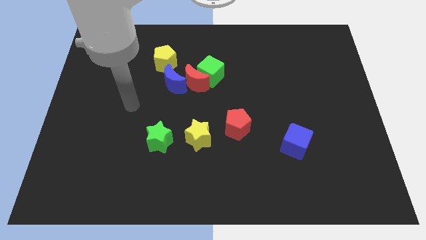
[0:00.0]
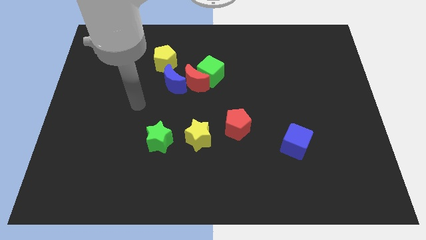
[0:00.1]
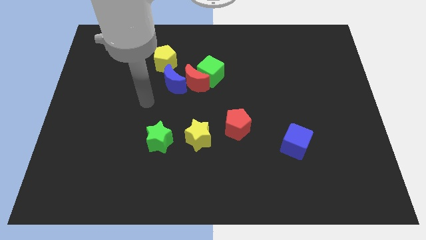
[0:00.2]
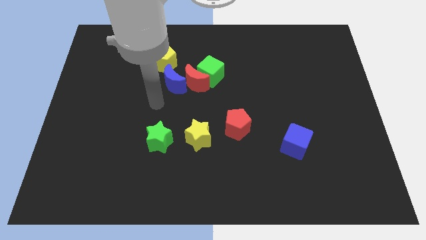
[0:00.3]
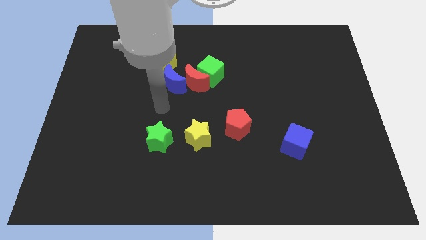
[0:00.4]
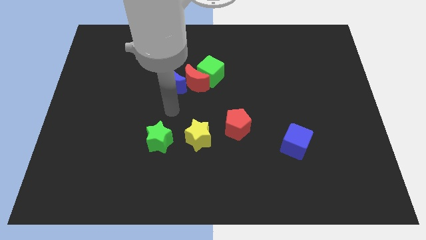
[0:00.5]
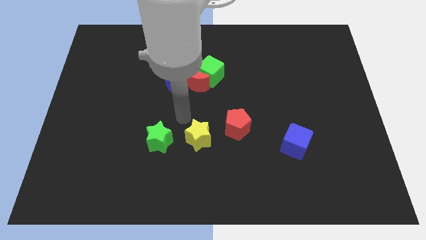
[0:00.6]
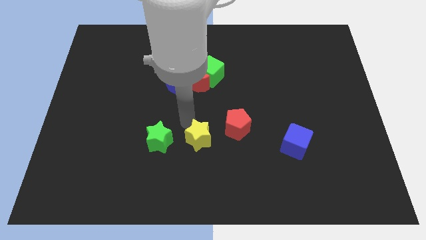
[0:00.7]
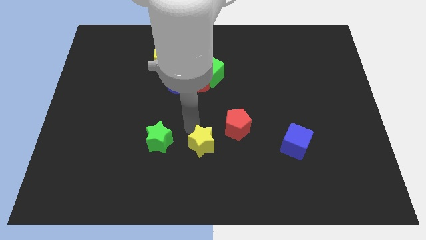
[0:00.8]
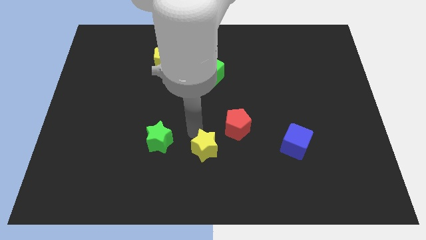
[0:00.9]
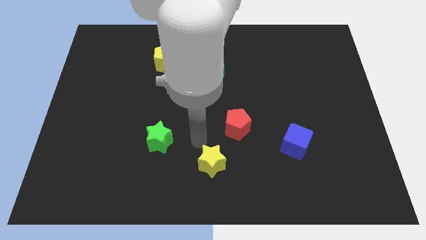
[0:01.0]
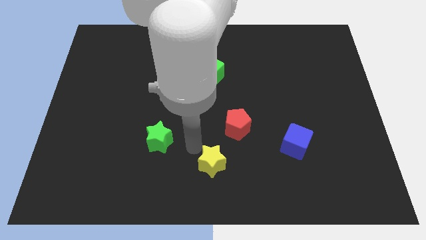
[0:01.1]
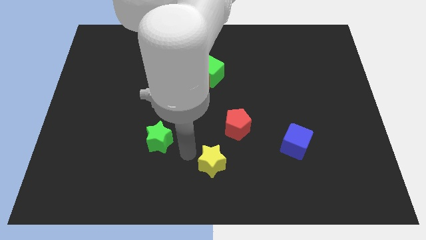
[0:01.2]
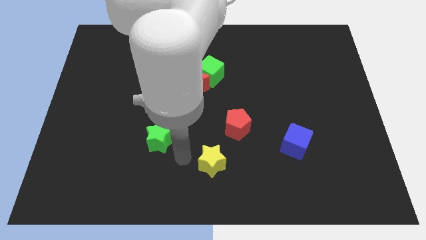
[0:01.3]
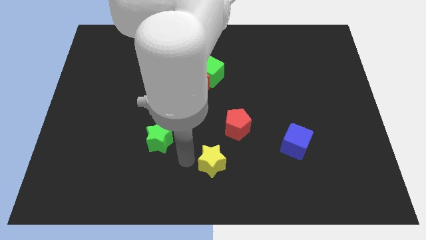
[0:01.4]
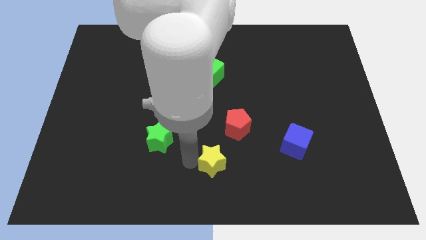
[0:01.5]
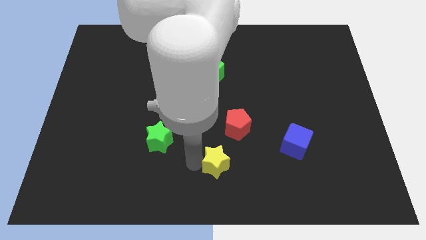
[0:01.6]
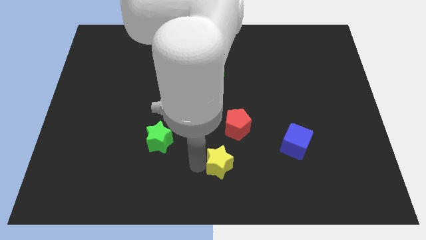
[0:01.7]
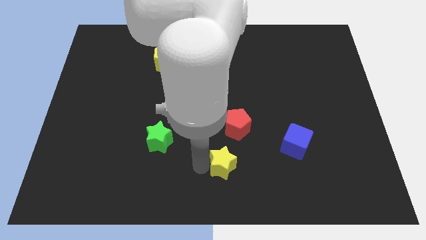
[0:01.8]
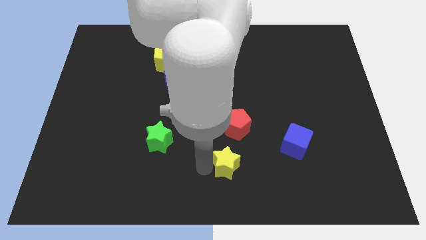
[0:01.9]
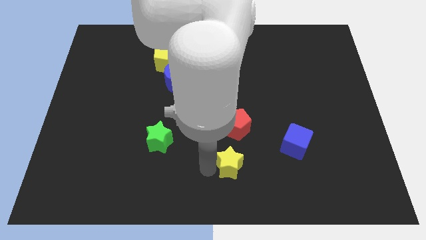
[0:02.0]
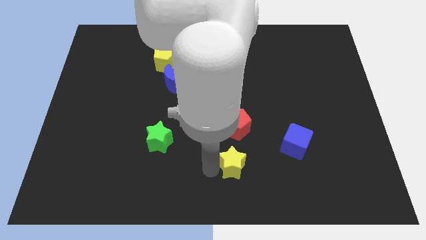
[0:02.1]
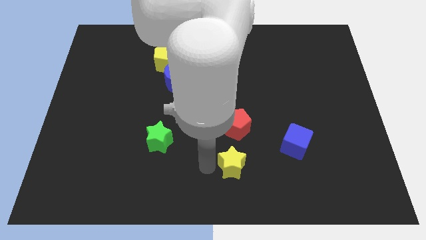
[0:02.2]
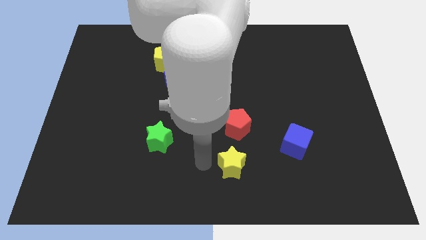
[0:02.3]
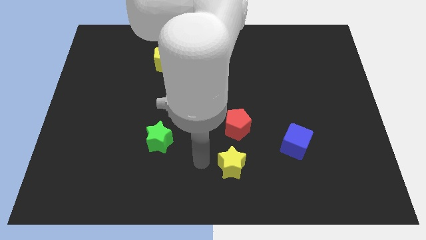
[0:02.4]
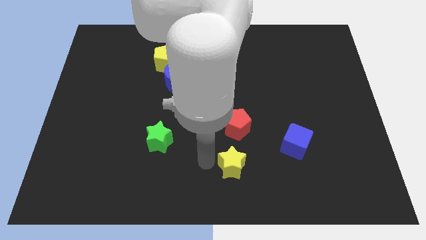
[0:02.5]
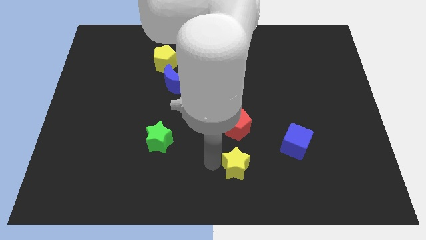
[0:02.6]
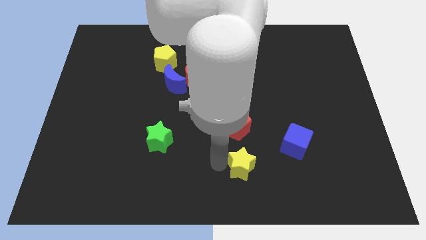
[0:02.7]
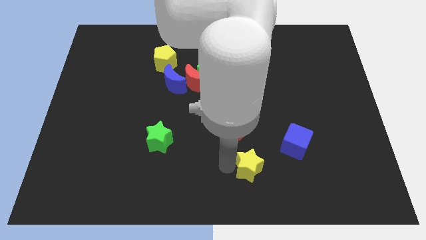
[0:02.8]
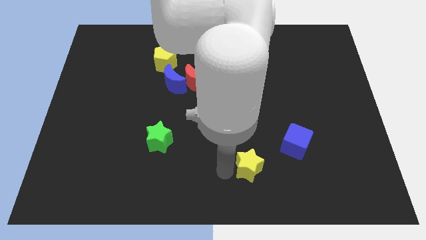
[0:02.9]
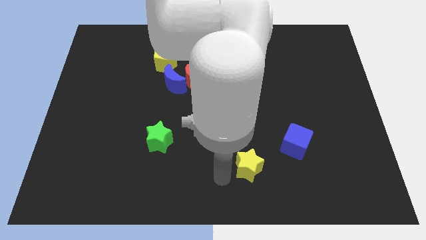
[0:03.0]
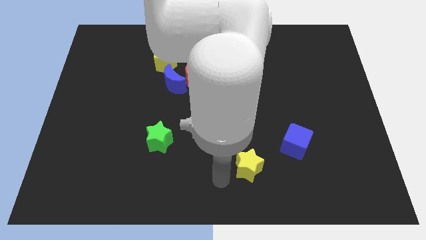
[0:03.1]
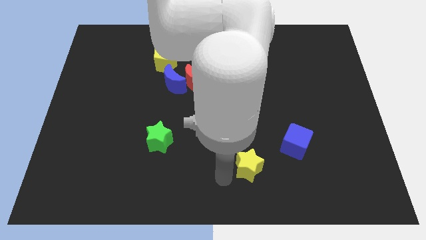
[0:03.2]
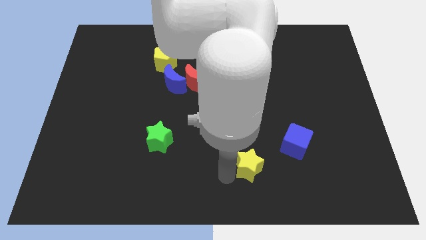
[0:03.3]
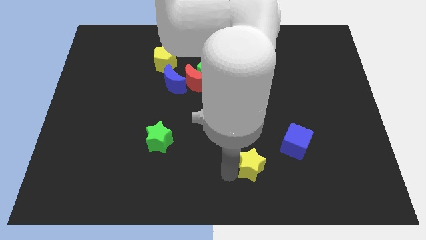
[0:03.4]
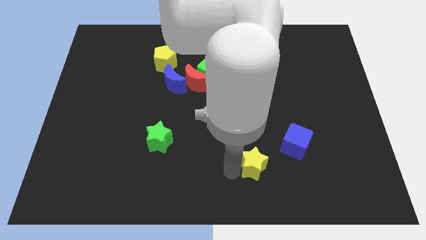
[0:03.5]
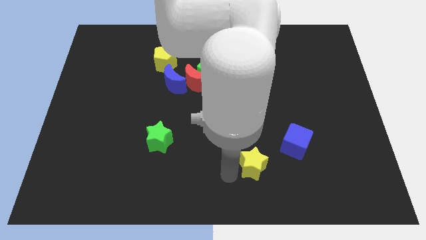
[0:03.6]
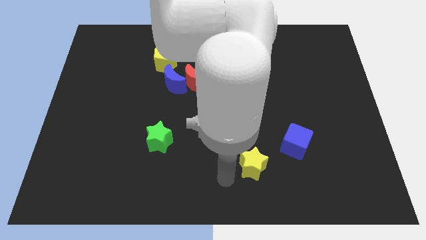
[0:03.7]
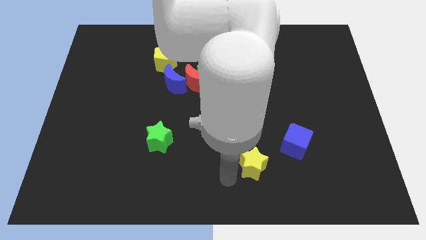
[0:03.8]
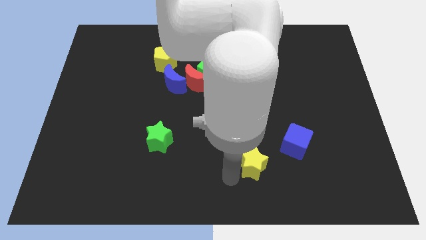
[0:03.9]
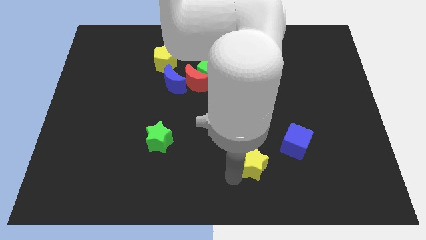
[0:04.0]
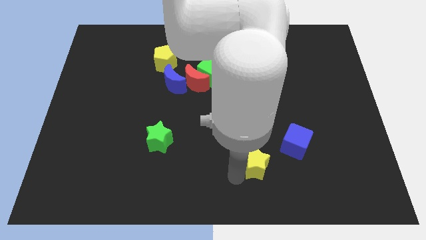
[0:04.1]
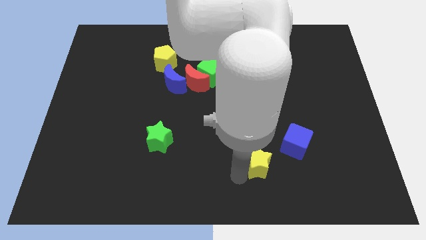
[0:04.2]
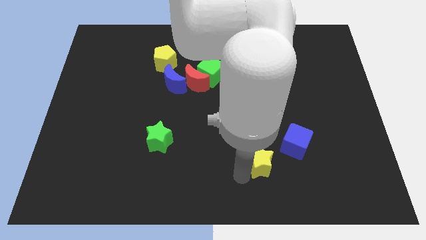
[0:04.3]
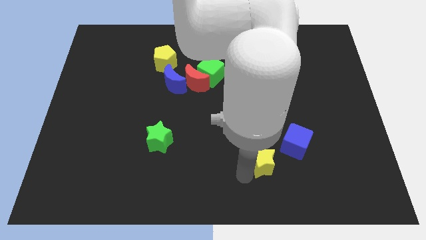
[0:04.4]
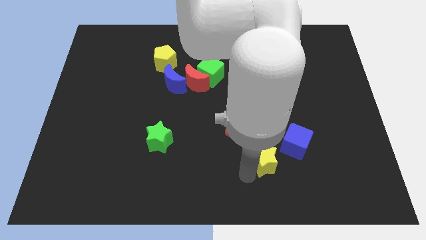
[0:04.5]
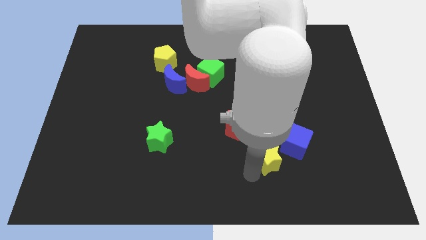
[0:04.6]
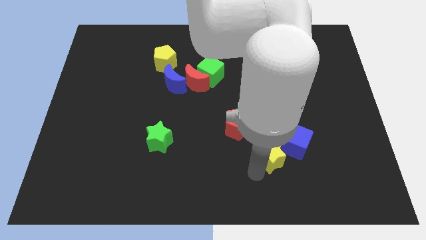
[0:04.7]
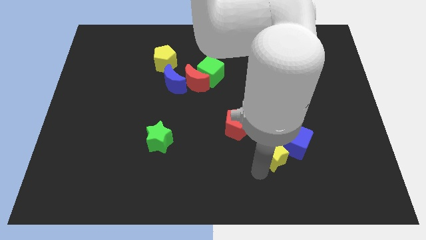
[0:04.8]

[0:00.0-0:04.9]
put the yellow star to the blue cube

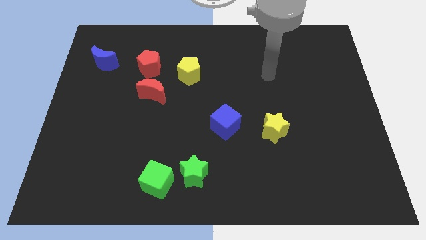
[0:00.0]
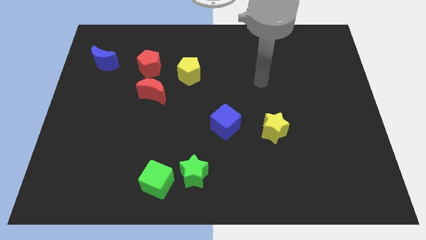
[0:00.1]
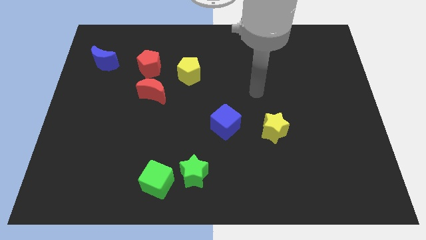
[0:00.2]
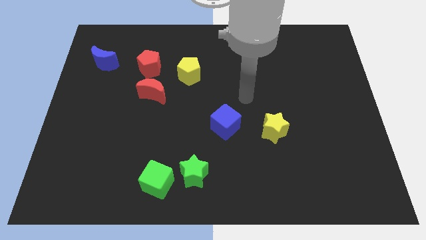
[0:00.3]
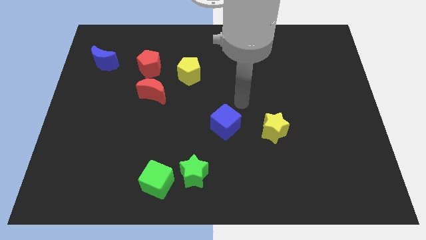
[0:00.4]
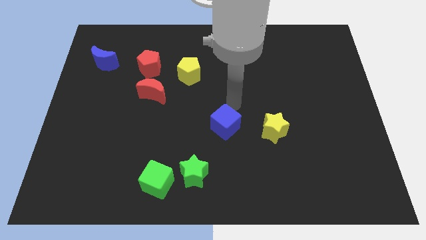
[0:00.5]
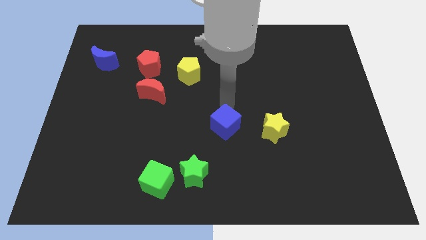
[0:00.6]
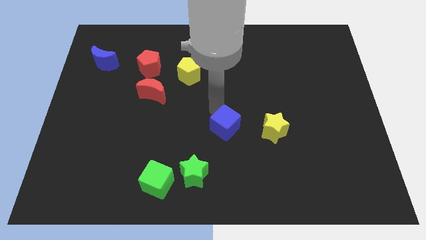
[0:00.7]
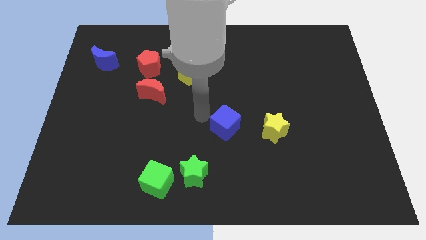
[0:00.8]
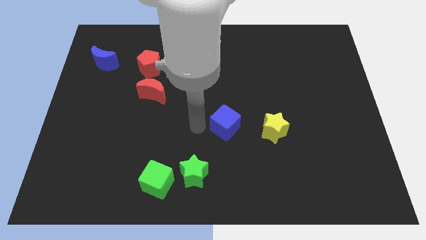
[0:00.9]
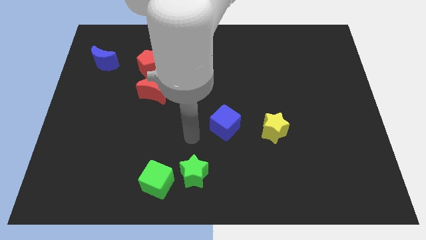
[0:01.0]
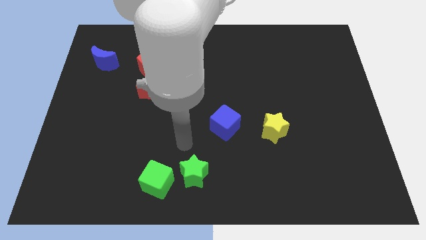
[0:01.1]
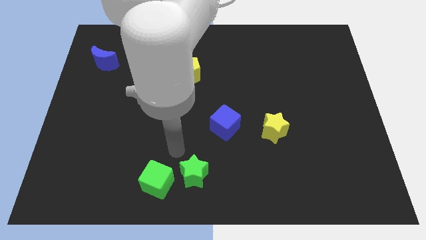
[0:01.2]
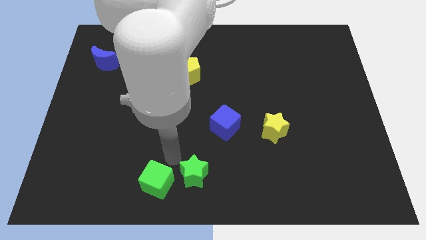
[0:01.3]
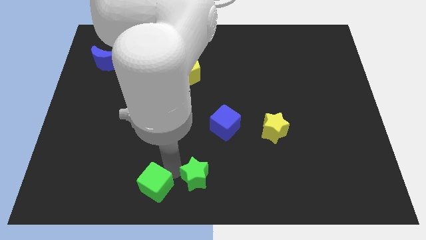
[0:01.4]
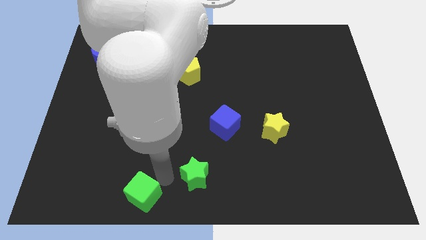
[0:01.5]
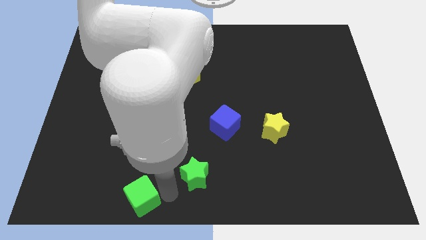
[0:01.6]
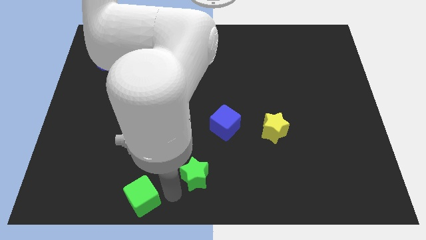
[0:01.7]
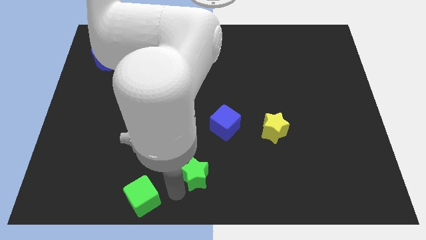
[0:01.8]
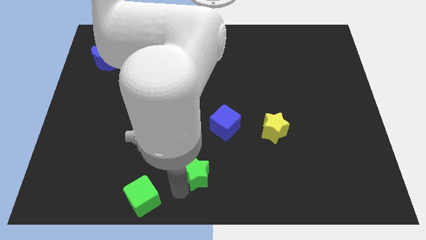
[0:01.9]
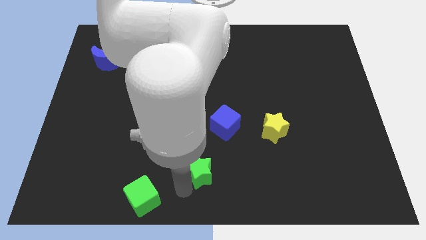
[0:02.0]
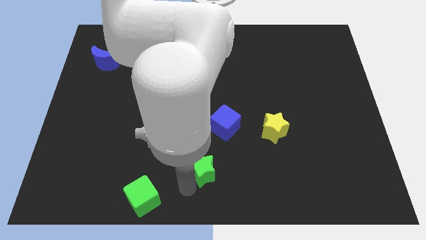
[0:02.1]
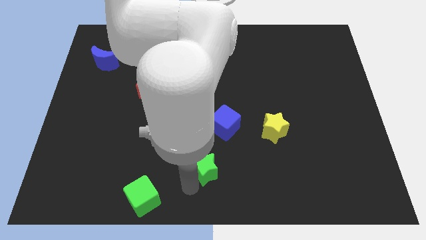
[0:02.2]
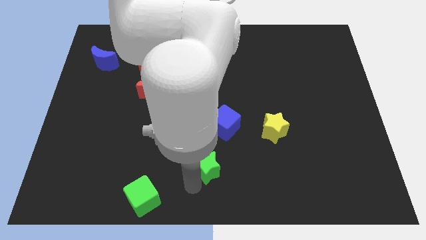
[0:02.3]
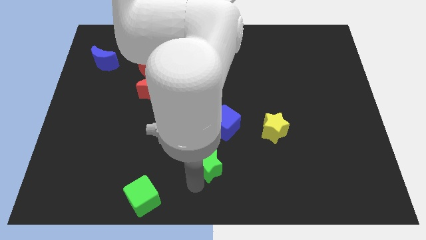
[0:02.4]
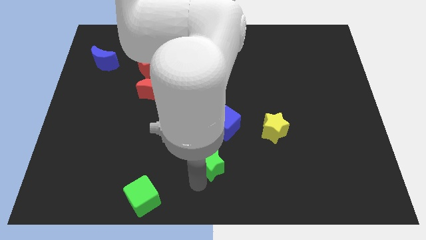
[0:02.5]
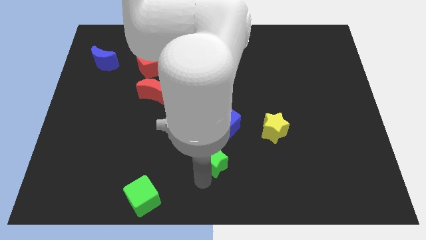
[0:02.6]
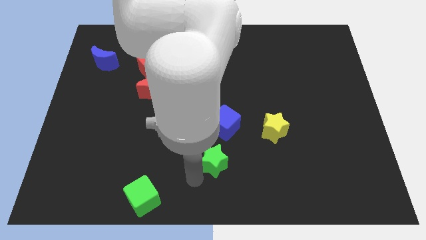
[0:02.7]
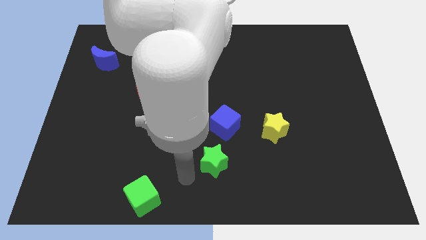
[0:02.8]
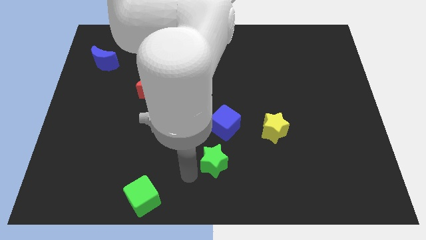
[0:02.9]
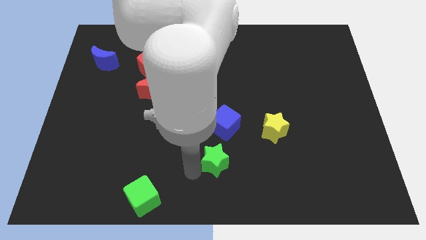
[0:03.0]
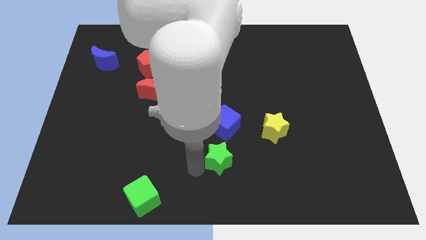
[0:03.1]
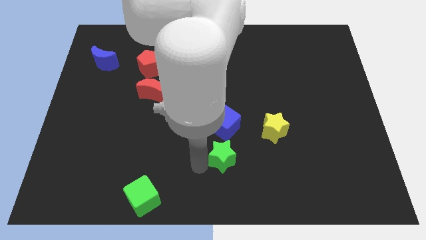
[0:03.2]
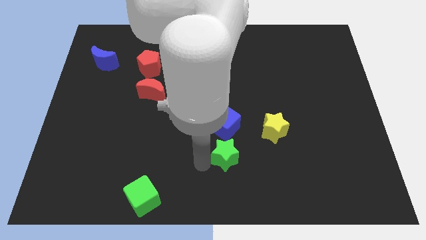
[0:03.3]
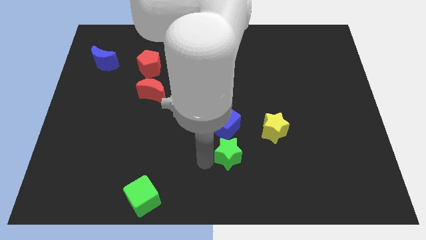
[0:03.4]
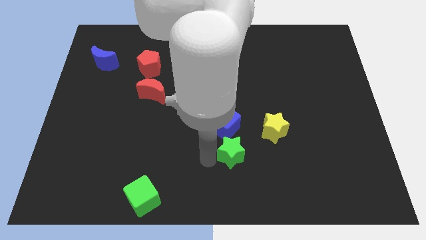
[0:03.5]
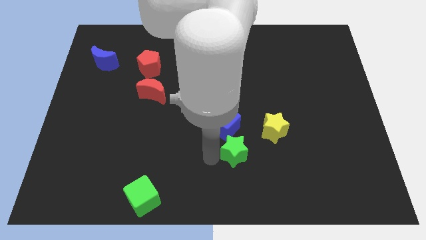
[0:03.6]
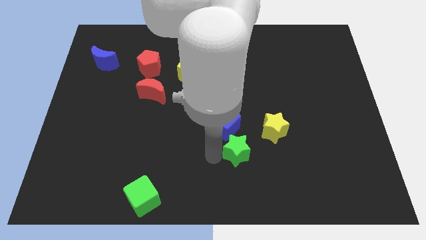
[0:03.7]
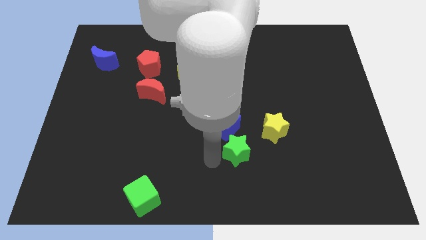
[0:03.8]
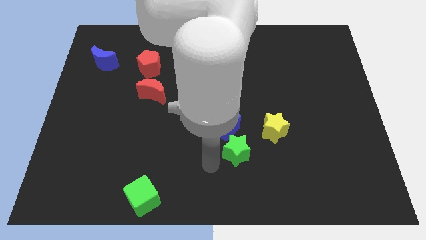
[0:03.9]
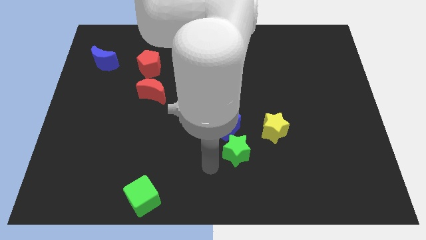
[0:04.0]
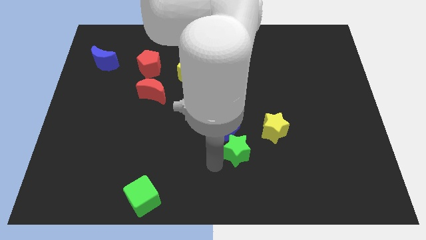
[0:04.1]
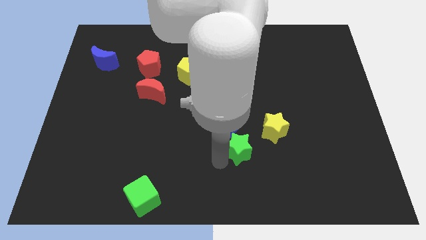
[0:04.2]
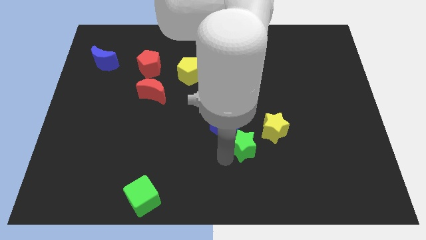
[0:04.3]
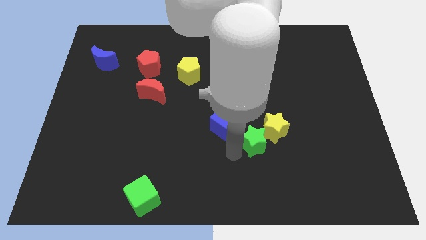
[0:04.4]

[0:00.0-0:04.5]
slide the green star close to the yellow star
